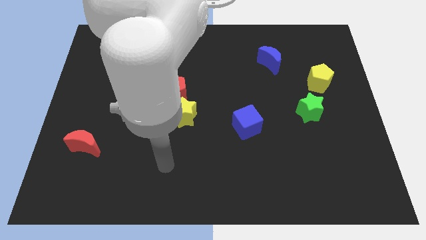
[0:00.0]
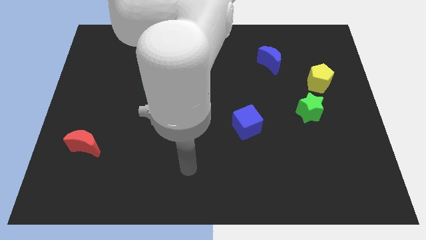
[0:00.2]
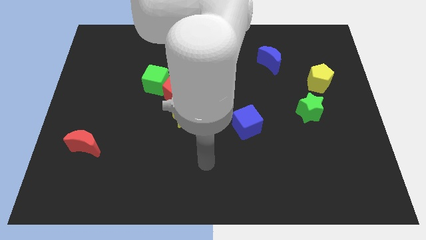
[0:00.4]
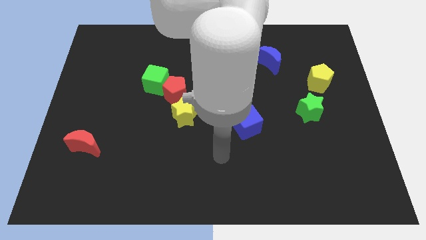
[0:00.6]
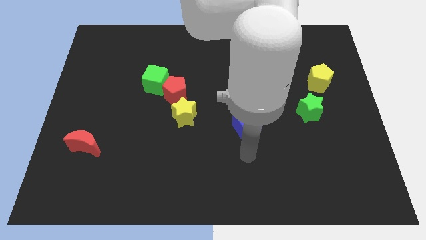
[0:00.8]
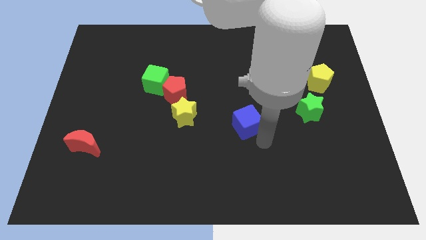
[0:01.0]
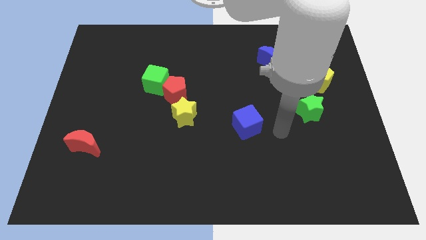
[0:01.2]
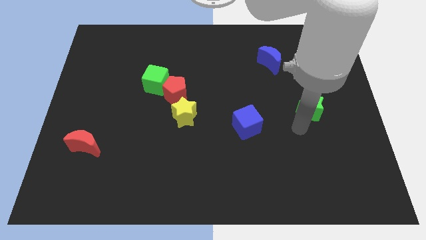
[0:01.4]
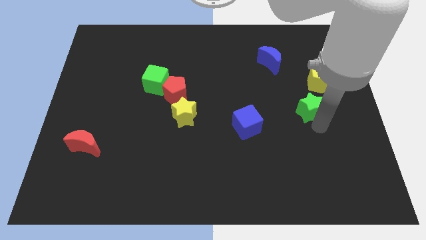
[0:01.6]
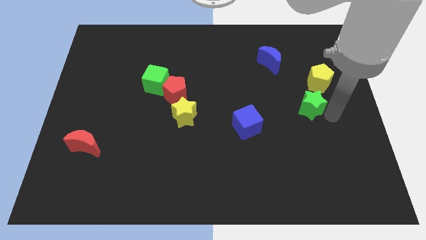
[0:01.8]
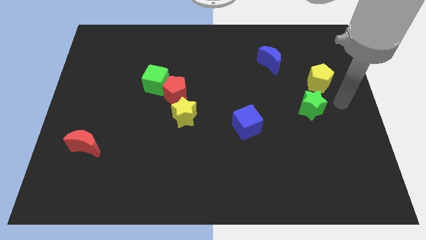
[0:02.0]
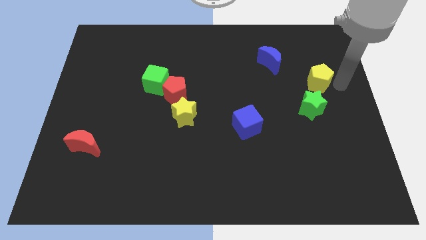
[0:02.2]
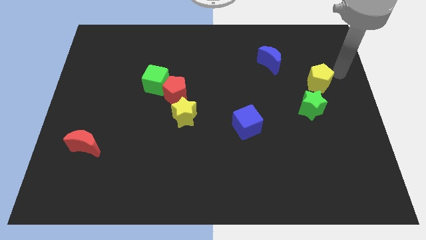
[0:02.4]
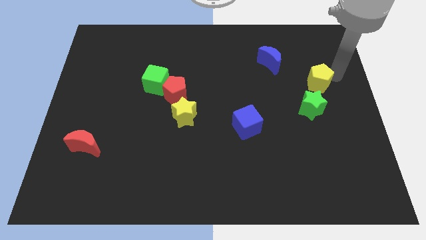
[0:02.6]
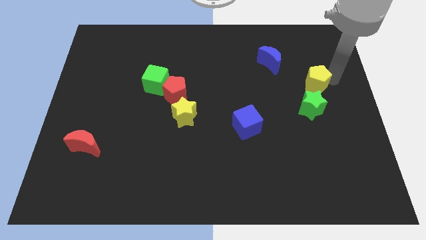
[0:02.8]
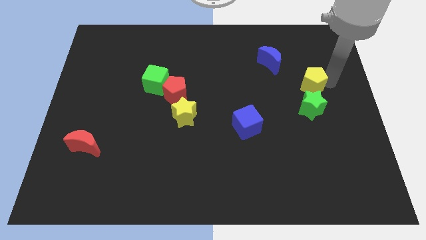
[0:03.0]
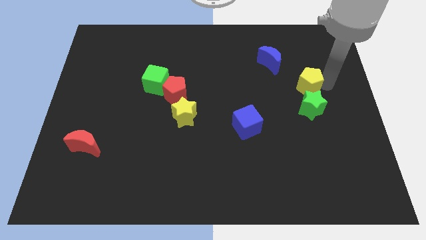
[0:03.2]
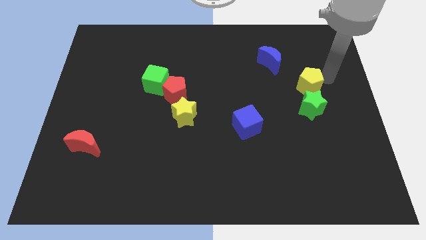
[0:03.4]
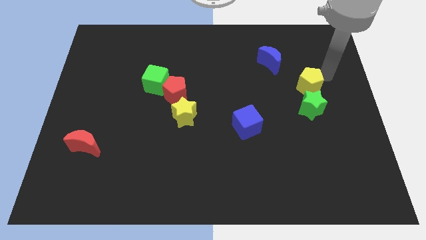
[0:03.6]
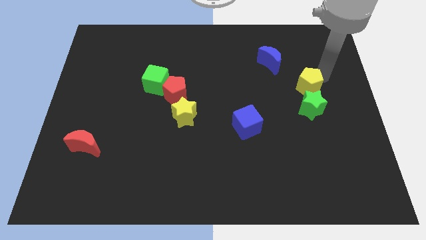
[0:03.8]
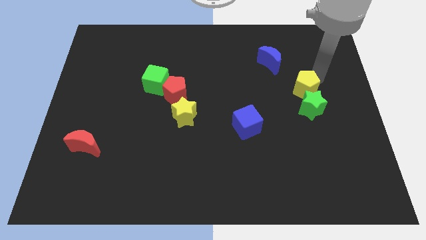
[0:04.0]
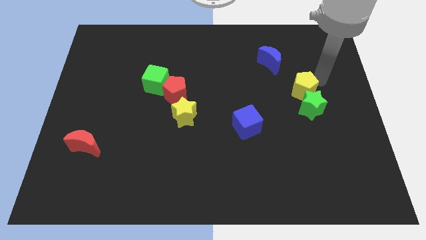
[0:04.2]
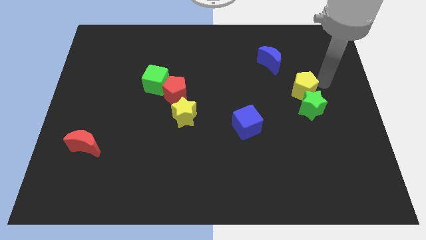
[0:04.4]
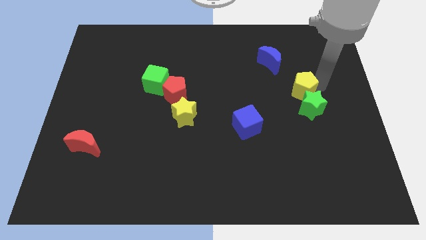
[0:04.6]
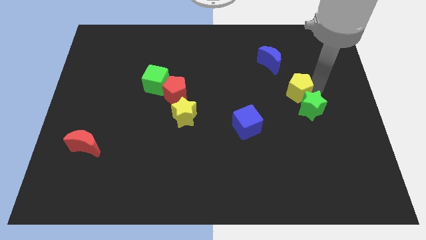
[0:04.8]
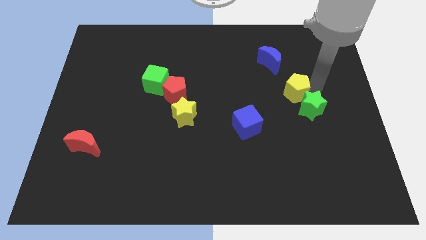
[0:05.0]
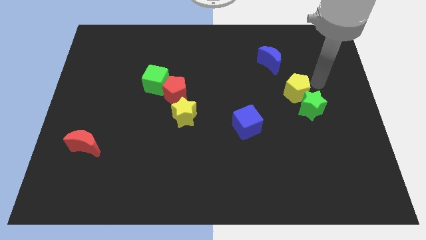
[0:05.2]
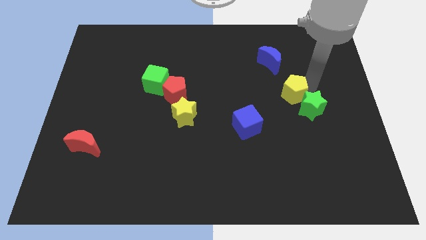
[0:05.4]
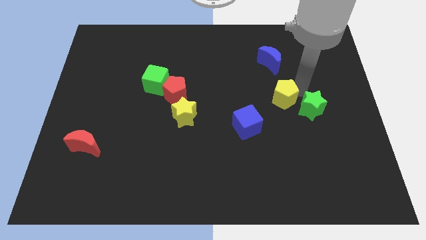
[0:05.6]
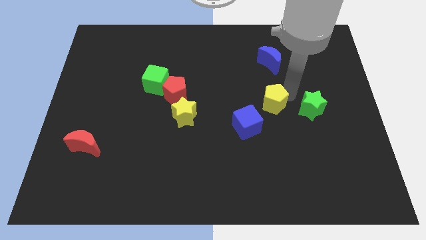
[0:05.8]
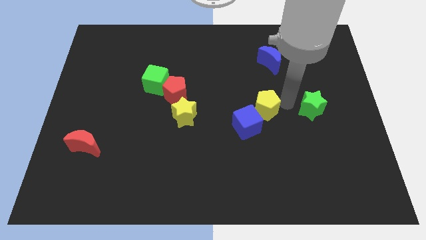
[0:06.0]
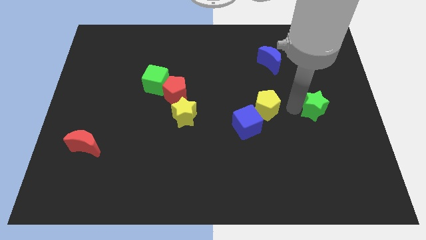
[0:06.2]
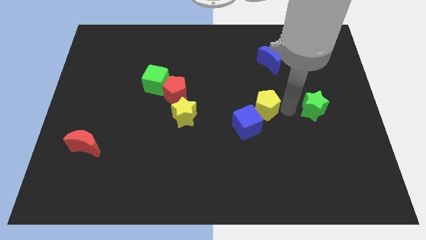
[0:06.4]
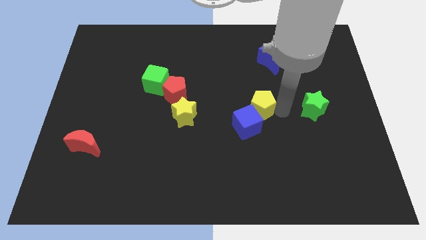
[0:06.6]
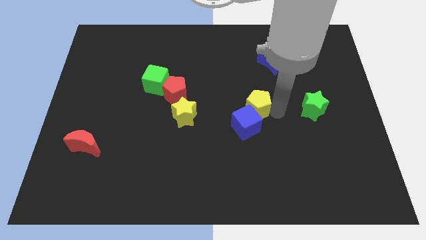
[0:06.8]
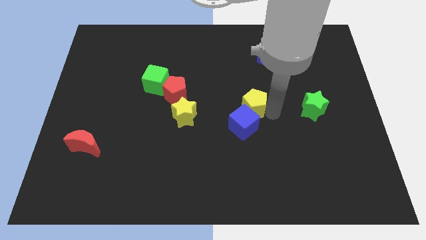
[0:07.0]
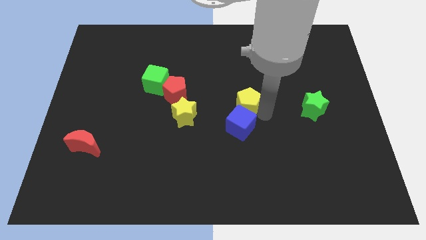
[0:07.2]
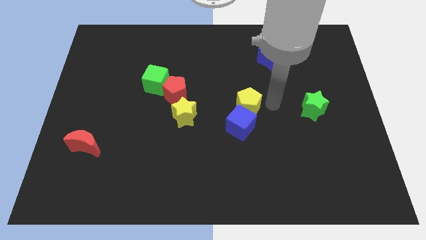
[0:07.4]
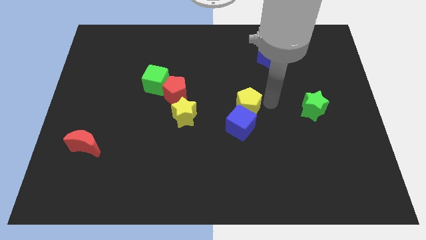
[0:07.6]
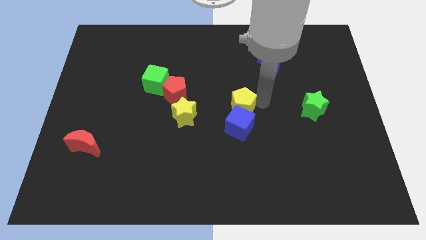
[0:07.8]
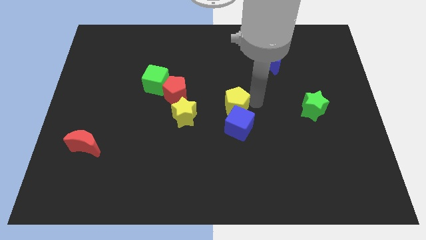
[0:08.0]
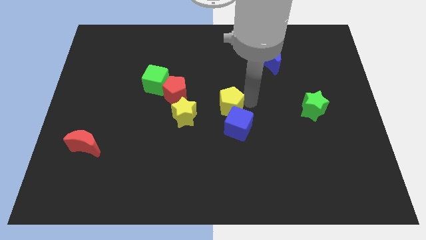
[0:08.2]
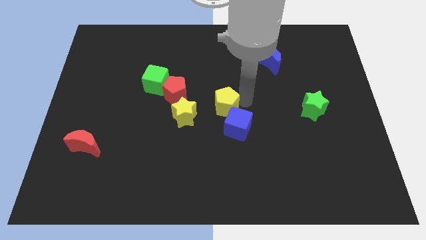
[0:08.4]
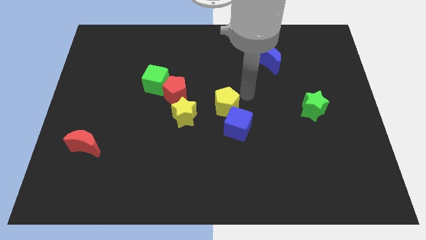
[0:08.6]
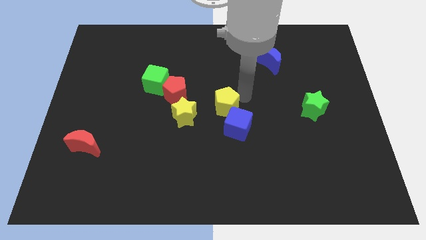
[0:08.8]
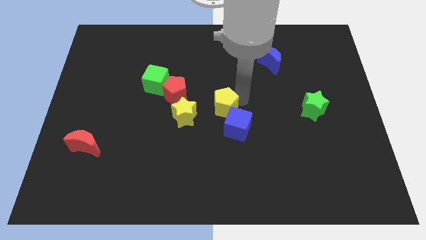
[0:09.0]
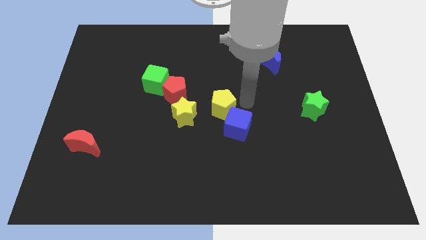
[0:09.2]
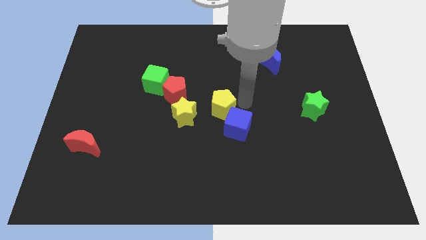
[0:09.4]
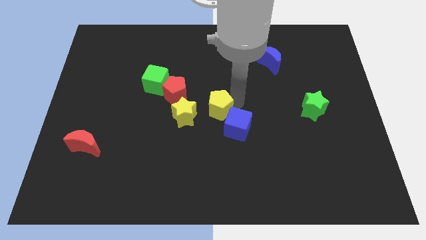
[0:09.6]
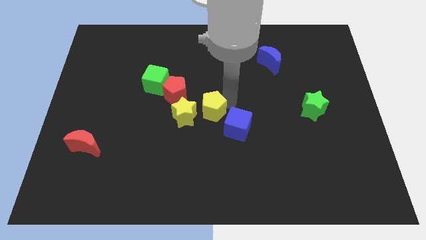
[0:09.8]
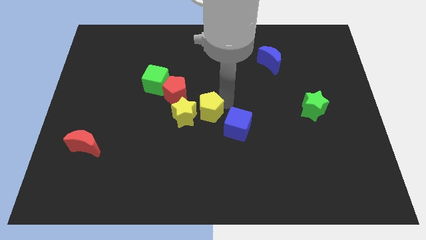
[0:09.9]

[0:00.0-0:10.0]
put the yellow pentagon to the yellow star

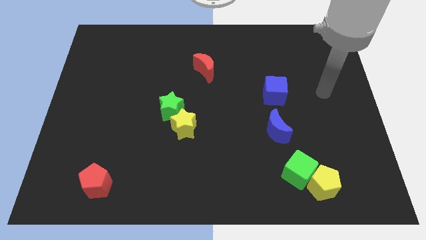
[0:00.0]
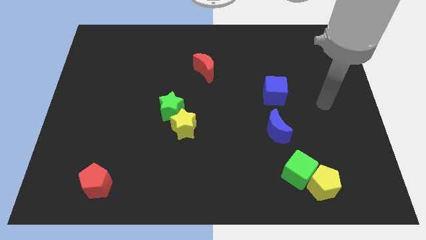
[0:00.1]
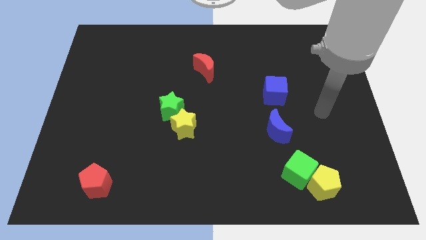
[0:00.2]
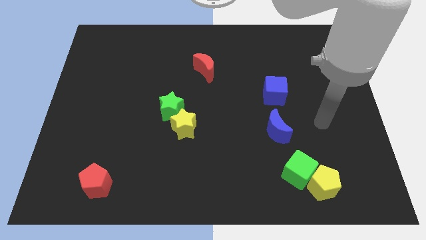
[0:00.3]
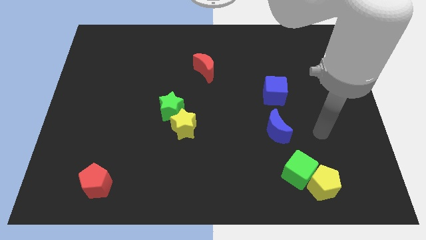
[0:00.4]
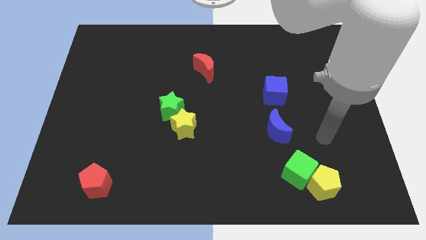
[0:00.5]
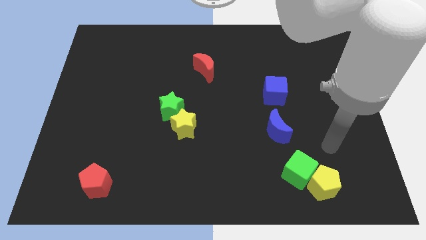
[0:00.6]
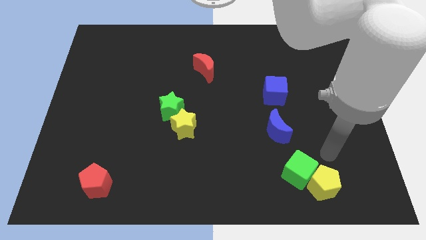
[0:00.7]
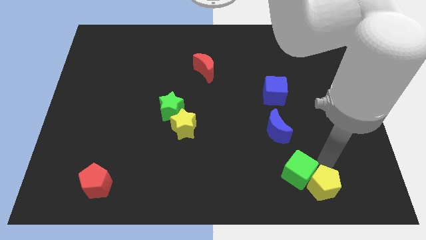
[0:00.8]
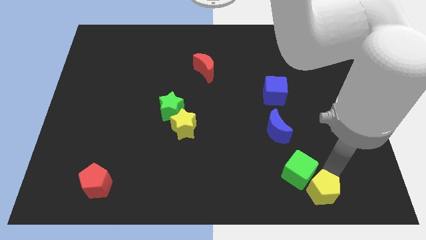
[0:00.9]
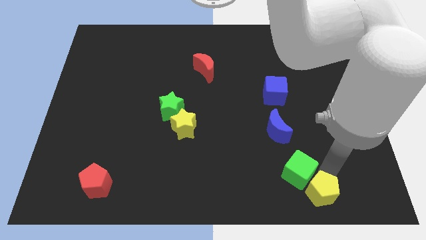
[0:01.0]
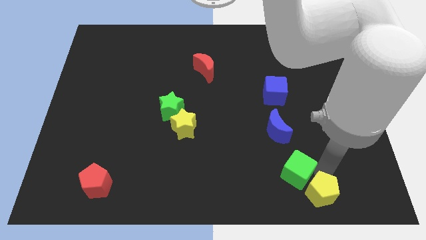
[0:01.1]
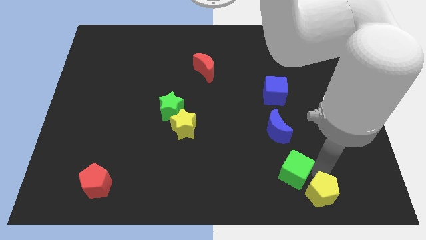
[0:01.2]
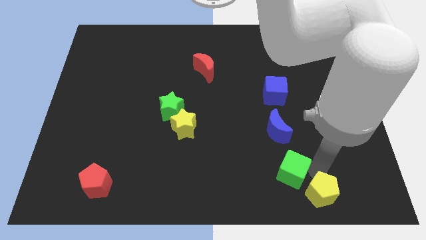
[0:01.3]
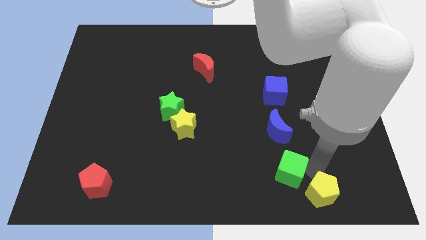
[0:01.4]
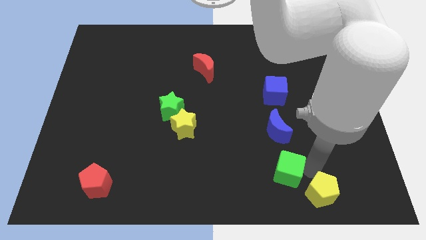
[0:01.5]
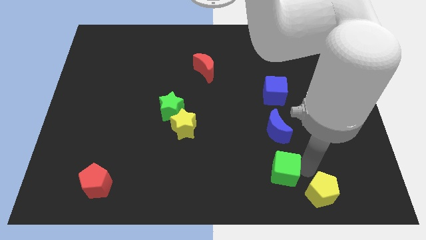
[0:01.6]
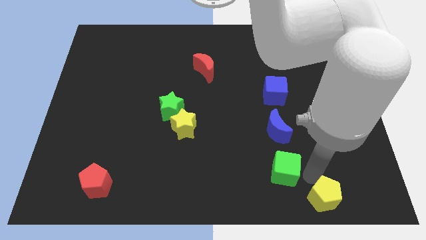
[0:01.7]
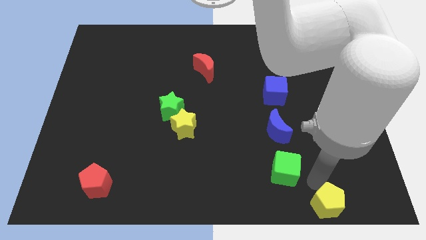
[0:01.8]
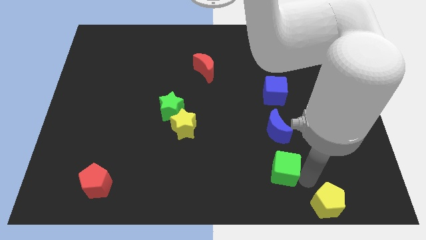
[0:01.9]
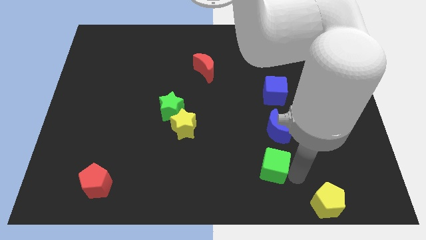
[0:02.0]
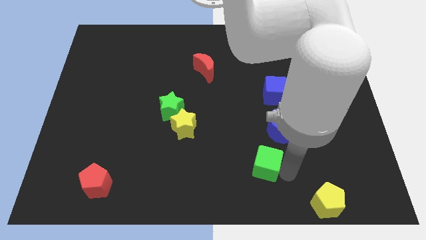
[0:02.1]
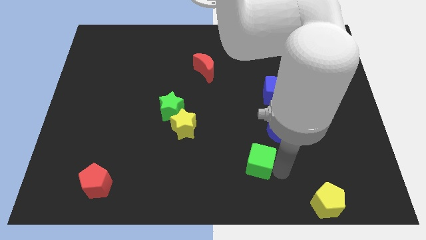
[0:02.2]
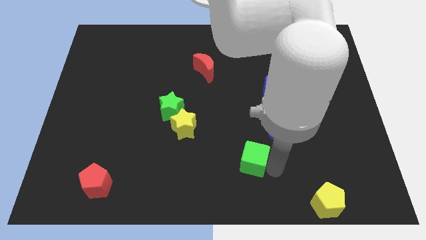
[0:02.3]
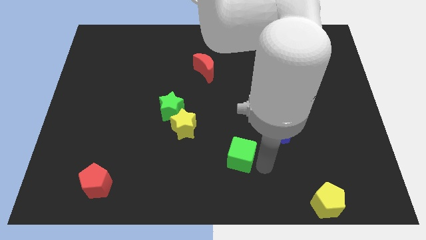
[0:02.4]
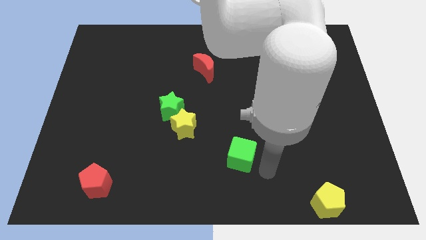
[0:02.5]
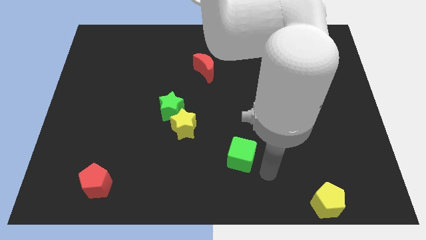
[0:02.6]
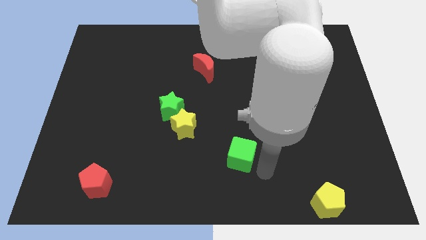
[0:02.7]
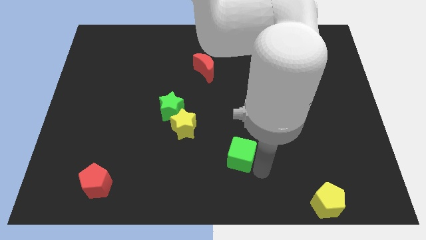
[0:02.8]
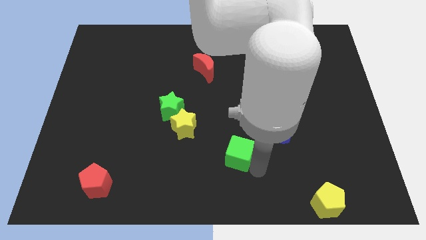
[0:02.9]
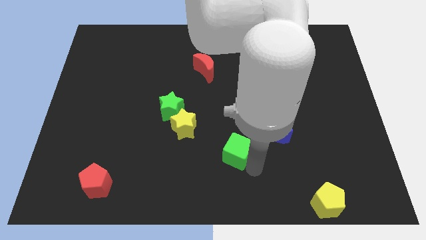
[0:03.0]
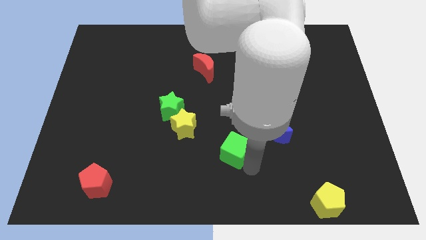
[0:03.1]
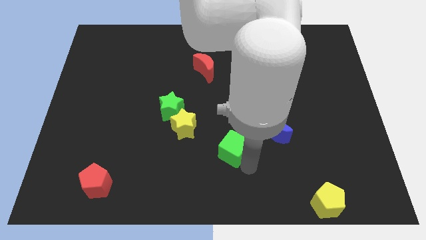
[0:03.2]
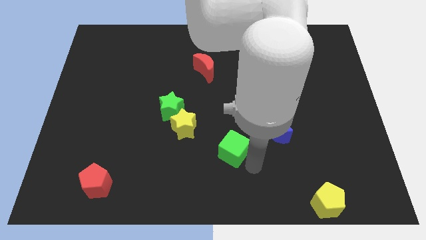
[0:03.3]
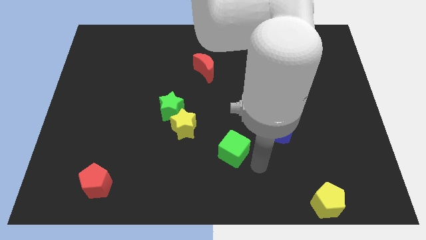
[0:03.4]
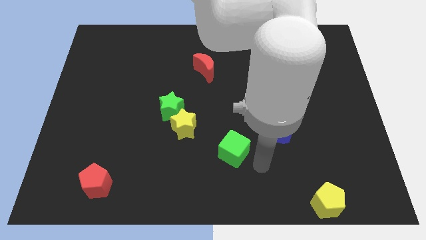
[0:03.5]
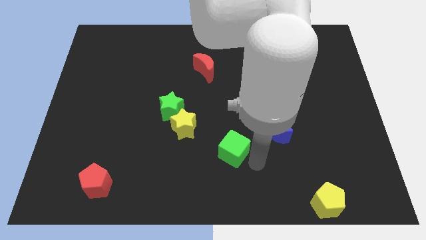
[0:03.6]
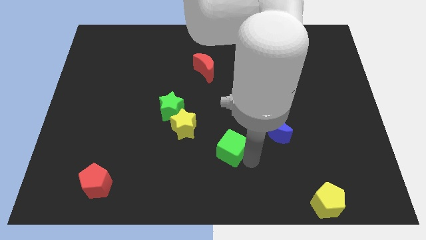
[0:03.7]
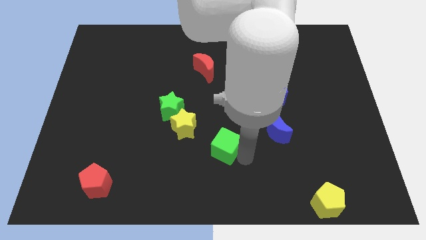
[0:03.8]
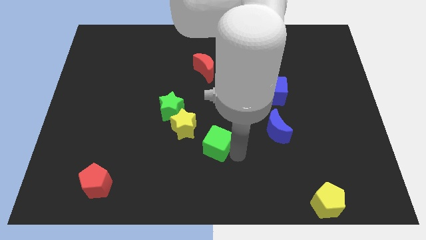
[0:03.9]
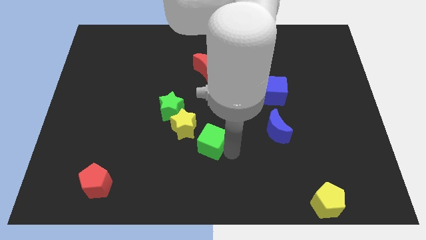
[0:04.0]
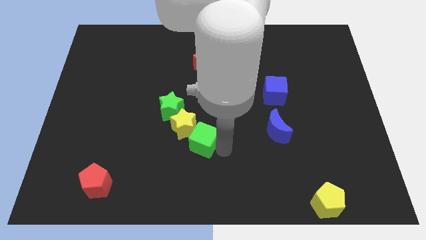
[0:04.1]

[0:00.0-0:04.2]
put the green cube close to the yellow star
